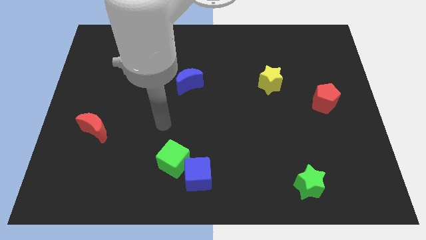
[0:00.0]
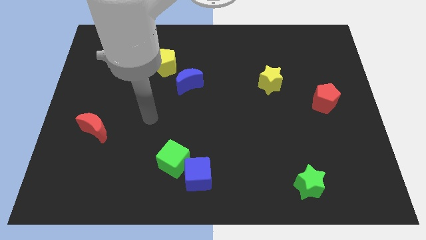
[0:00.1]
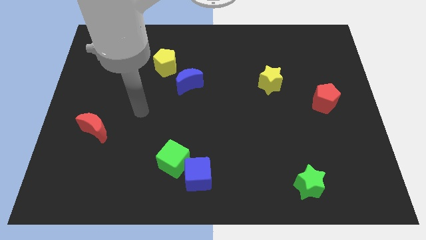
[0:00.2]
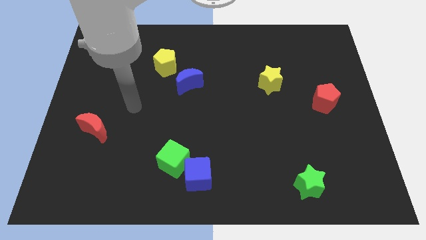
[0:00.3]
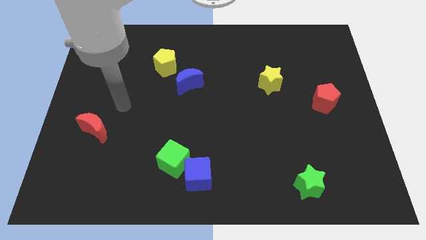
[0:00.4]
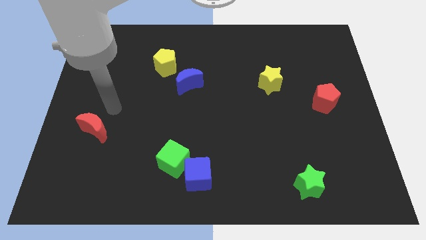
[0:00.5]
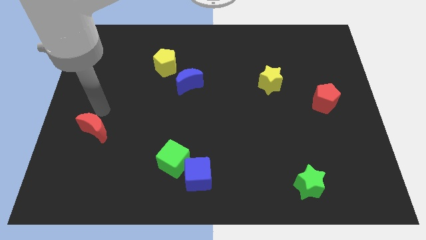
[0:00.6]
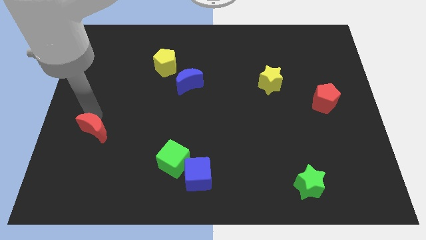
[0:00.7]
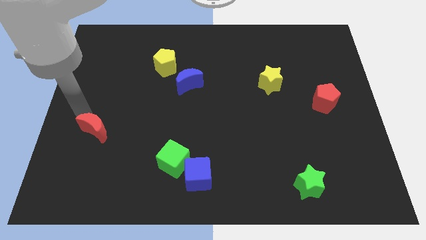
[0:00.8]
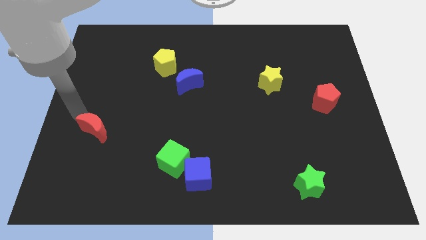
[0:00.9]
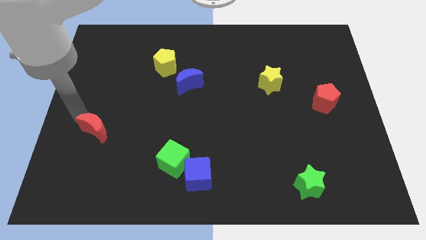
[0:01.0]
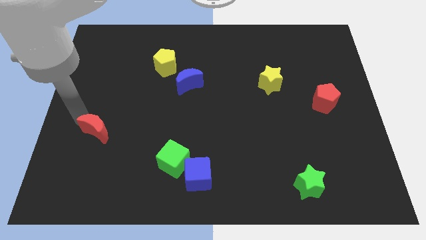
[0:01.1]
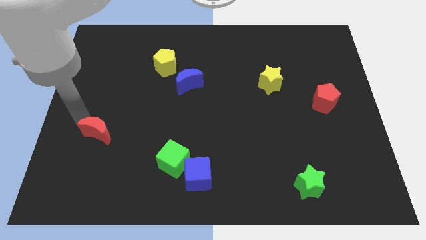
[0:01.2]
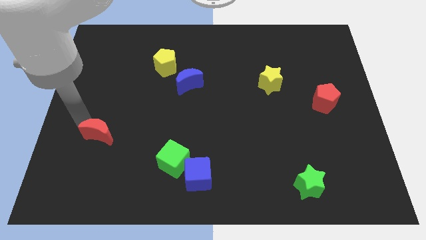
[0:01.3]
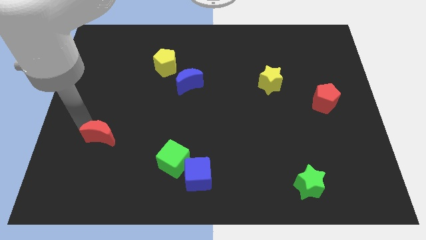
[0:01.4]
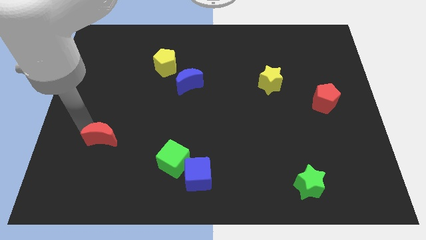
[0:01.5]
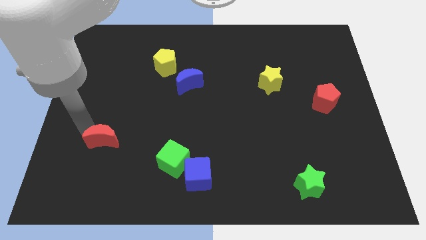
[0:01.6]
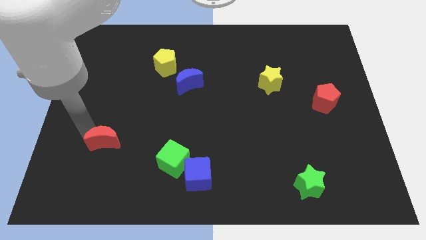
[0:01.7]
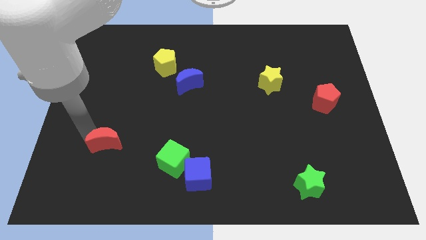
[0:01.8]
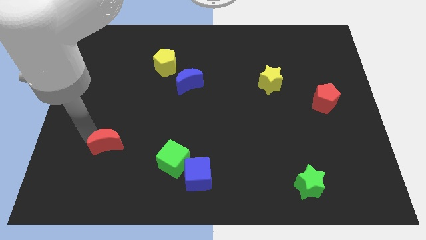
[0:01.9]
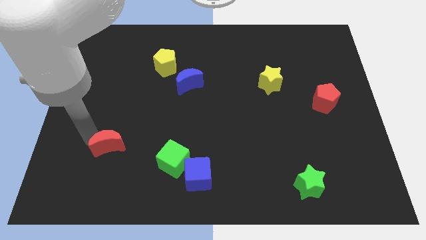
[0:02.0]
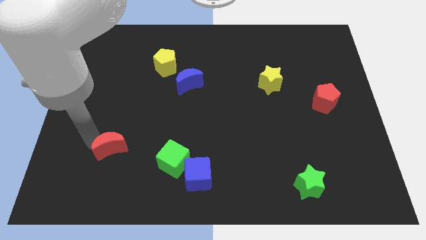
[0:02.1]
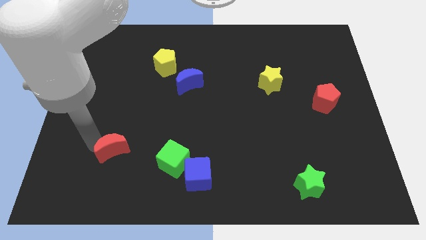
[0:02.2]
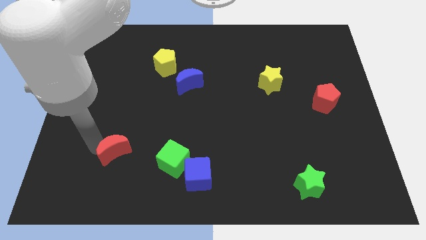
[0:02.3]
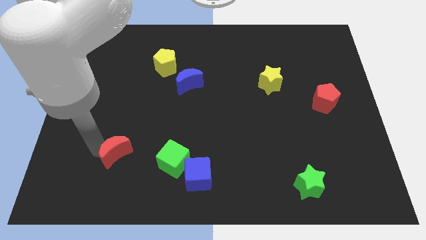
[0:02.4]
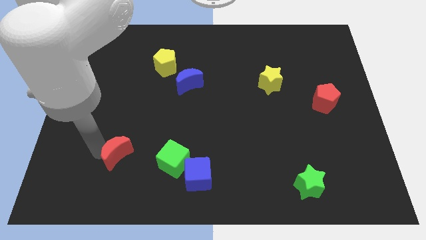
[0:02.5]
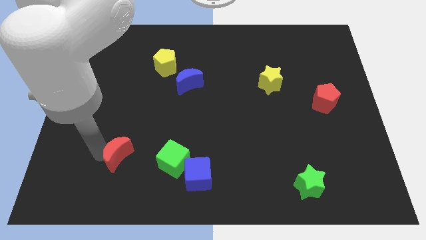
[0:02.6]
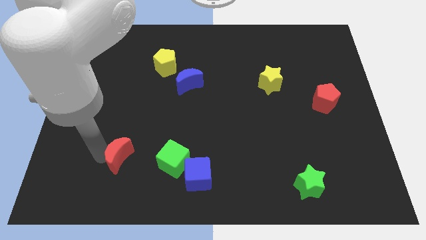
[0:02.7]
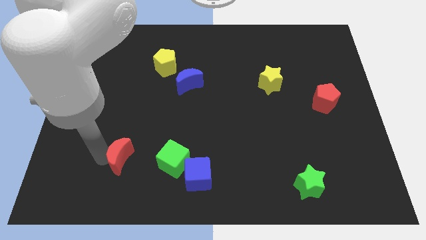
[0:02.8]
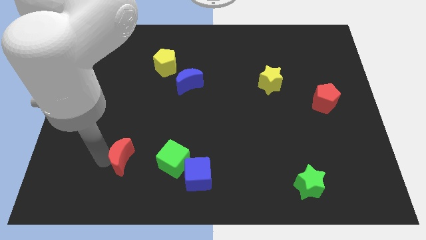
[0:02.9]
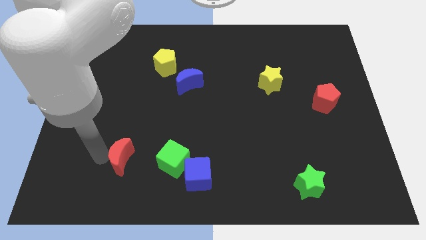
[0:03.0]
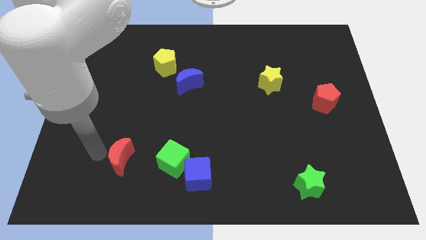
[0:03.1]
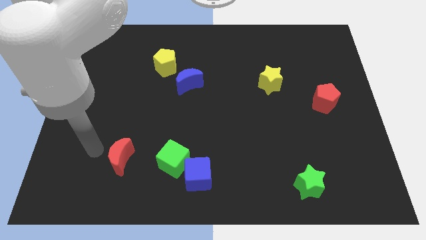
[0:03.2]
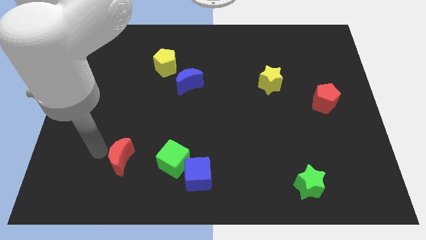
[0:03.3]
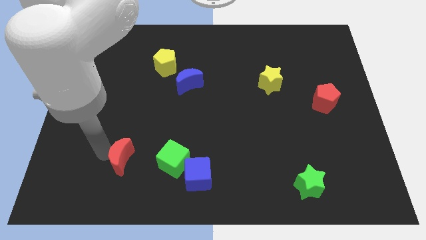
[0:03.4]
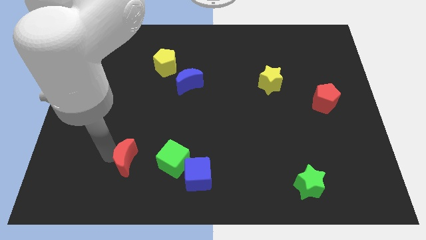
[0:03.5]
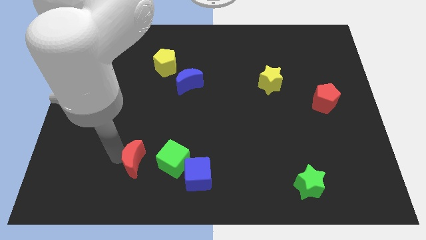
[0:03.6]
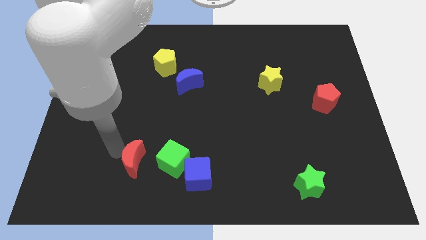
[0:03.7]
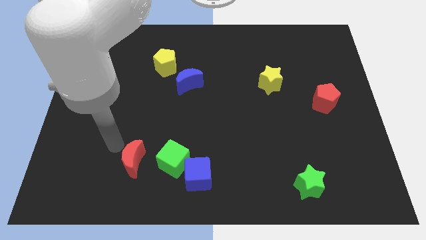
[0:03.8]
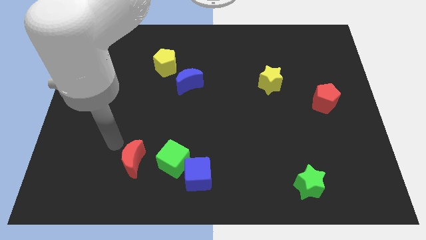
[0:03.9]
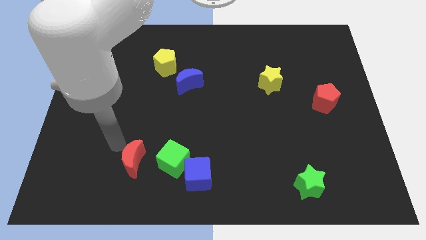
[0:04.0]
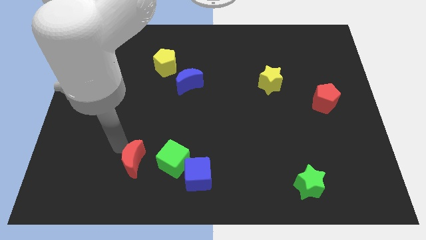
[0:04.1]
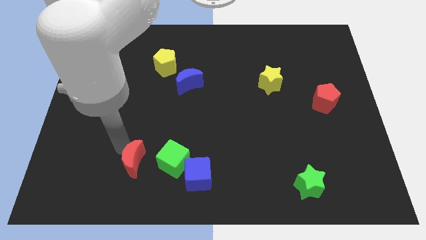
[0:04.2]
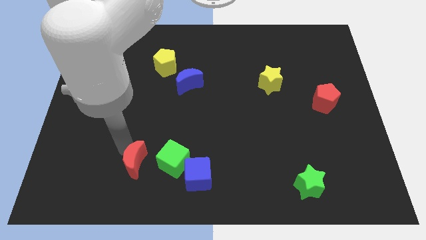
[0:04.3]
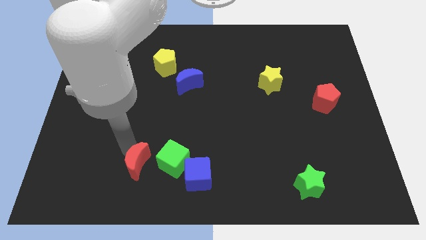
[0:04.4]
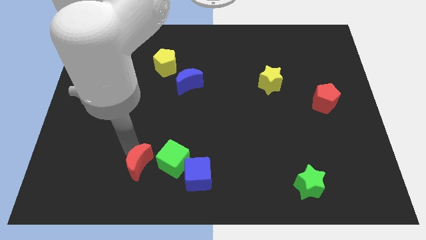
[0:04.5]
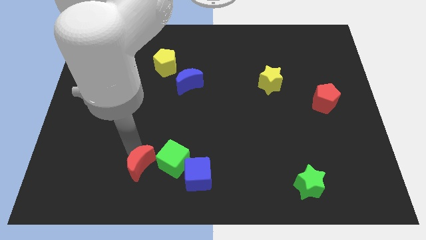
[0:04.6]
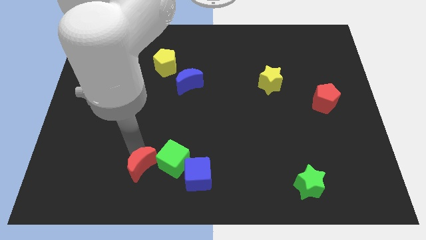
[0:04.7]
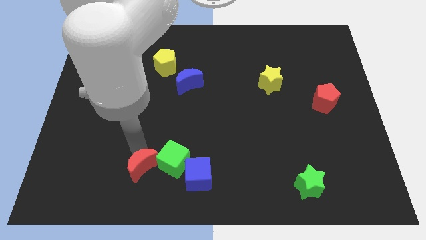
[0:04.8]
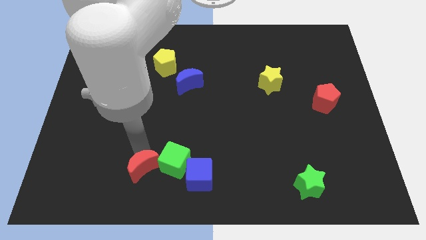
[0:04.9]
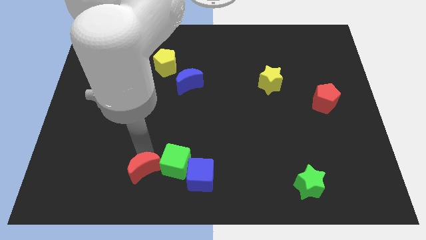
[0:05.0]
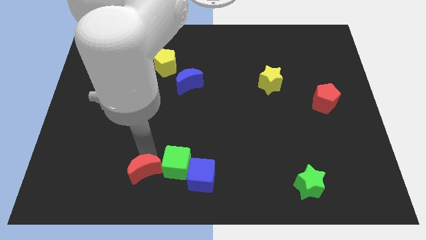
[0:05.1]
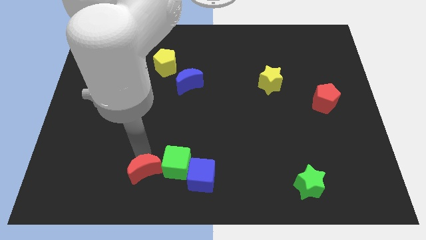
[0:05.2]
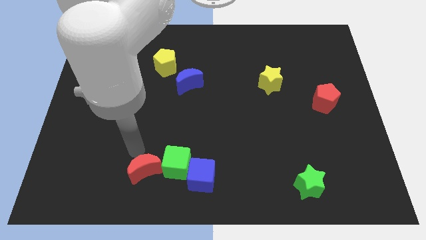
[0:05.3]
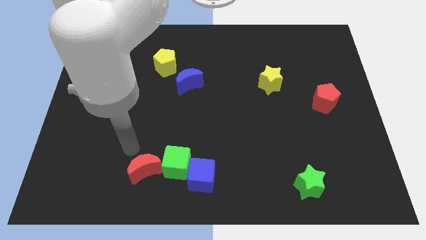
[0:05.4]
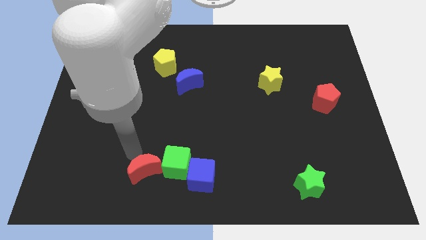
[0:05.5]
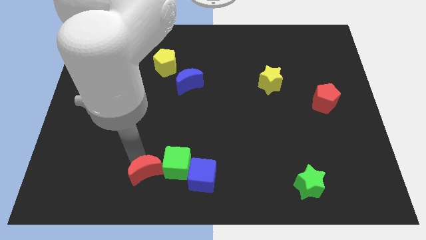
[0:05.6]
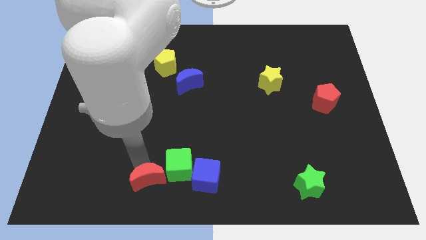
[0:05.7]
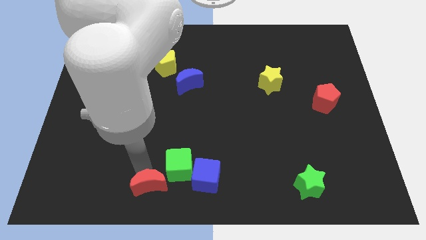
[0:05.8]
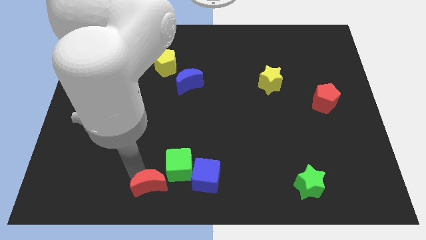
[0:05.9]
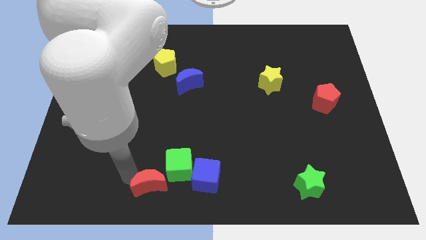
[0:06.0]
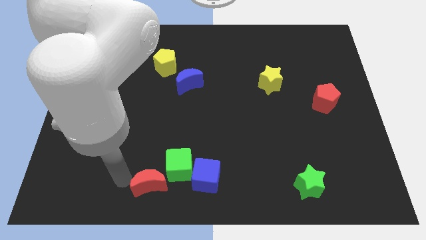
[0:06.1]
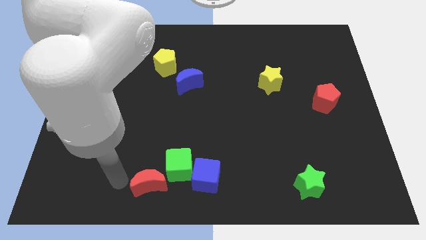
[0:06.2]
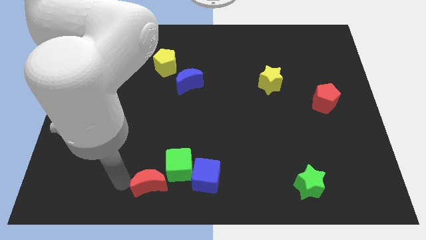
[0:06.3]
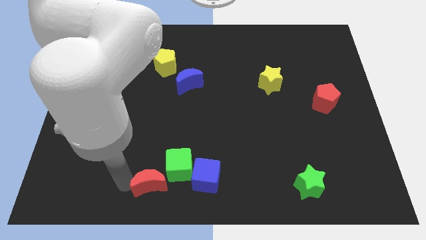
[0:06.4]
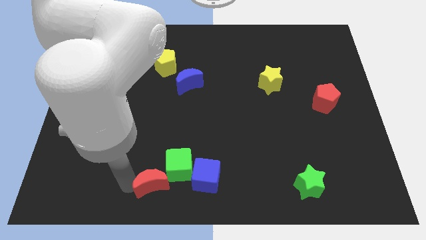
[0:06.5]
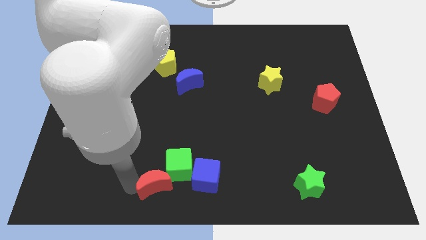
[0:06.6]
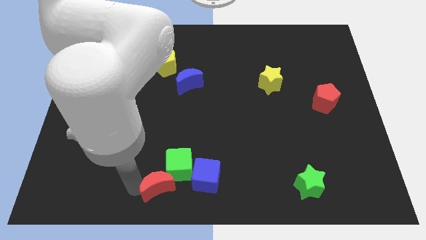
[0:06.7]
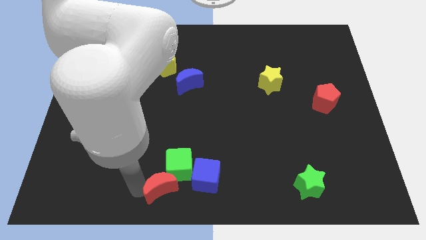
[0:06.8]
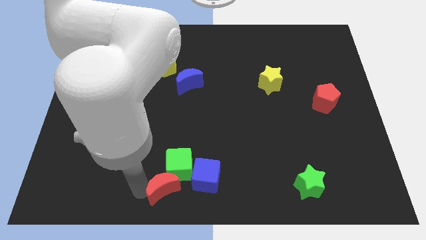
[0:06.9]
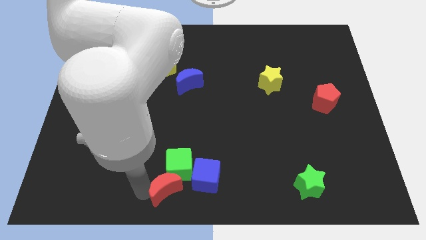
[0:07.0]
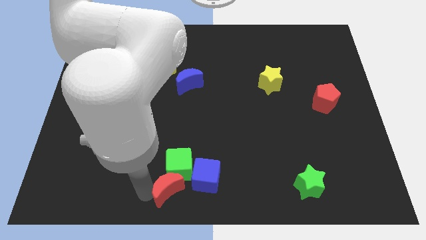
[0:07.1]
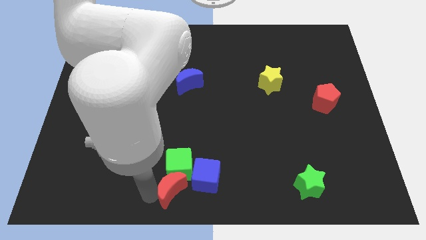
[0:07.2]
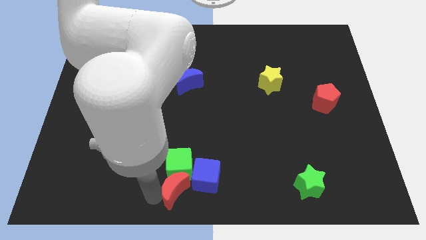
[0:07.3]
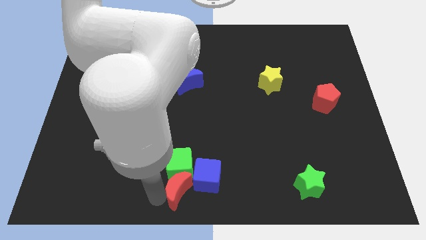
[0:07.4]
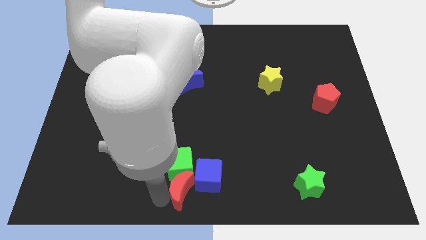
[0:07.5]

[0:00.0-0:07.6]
push the red moon towards the blue cube

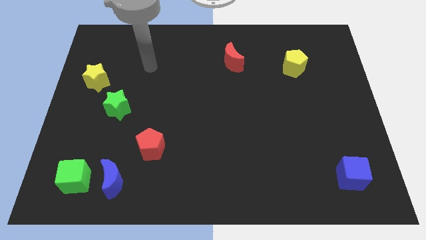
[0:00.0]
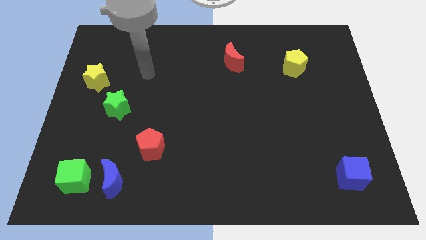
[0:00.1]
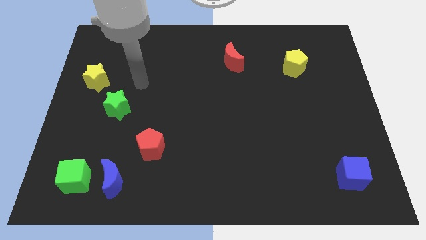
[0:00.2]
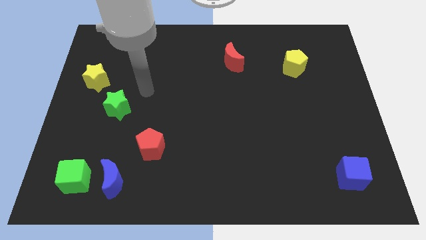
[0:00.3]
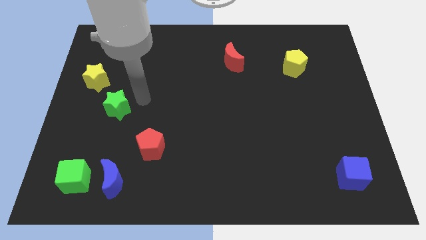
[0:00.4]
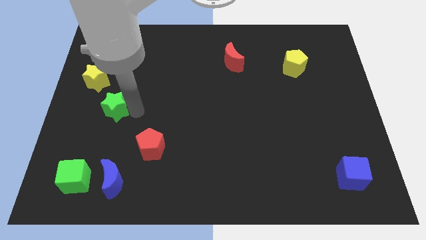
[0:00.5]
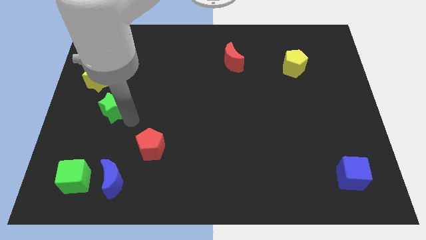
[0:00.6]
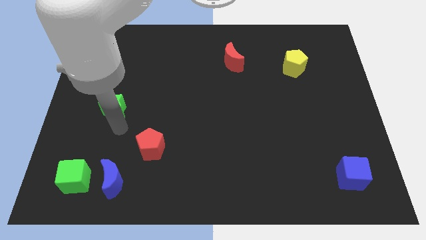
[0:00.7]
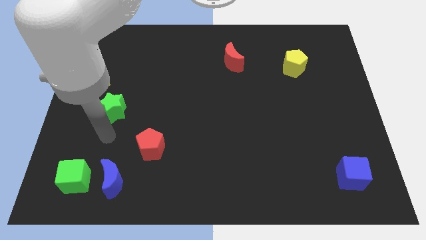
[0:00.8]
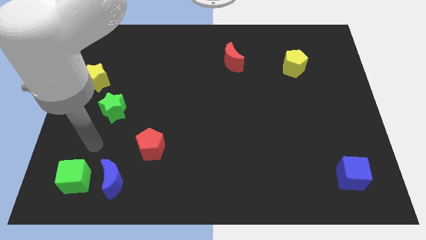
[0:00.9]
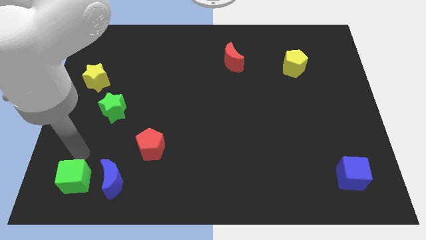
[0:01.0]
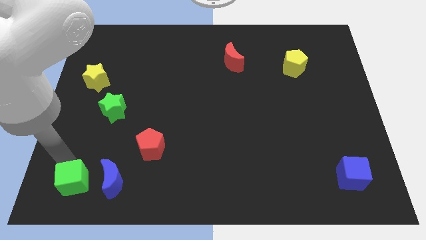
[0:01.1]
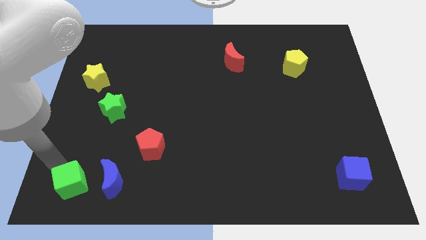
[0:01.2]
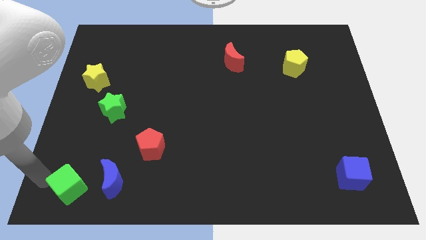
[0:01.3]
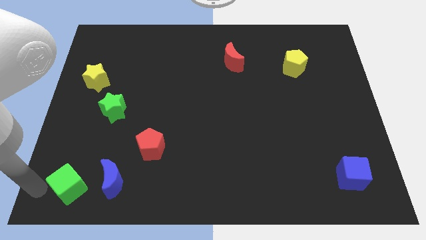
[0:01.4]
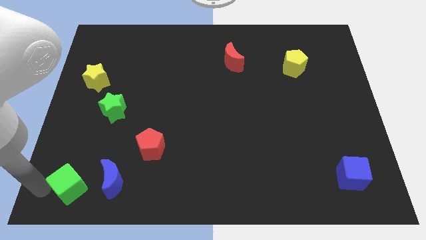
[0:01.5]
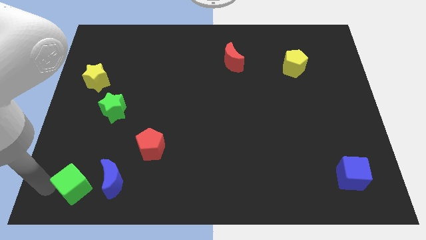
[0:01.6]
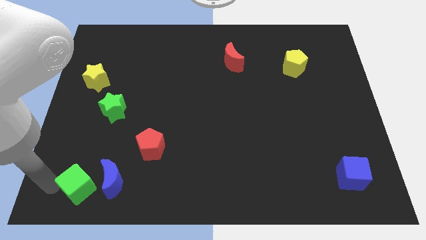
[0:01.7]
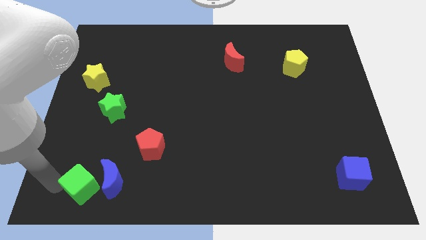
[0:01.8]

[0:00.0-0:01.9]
put the green cube towards the blue moon
